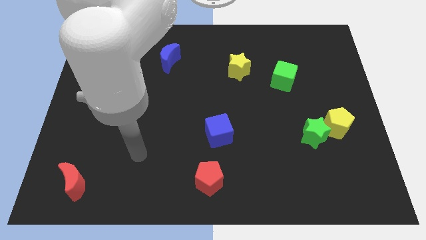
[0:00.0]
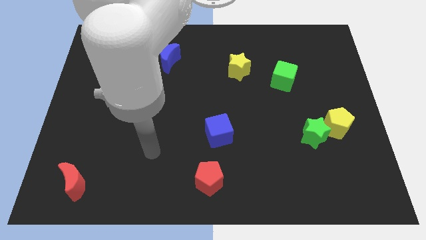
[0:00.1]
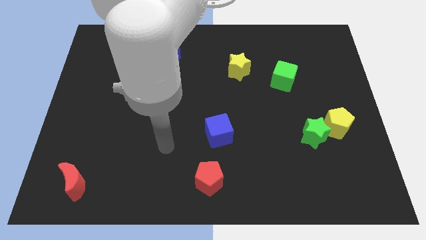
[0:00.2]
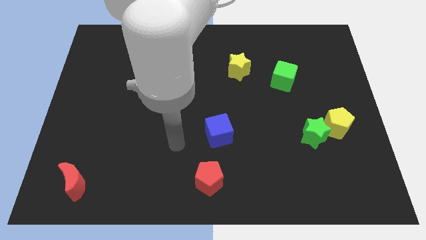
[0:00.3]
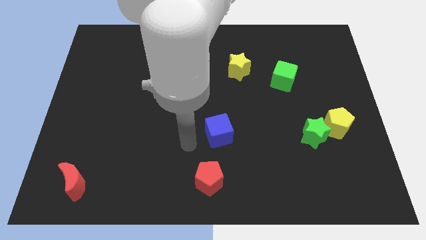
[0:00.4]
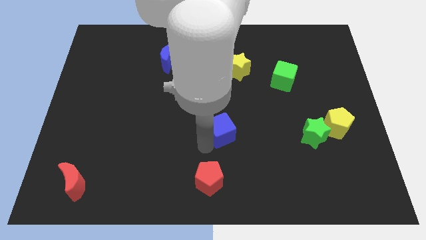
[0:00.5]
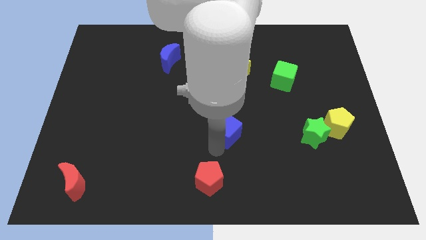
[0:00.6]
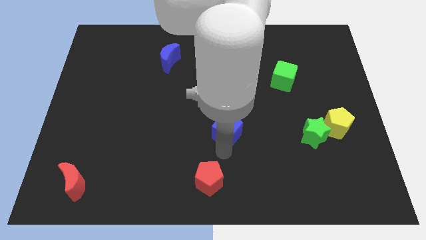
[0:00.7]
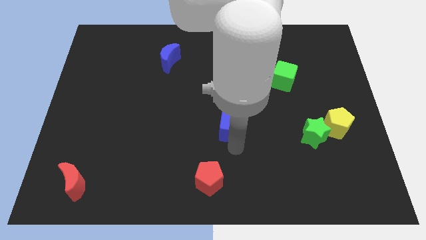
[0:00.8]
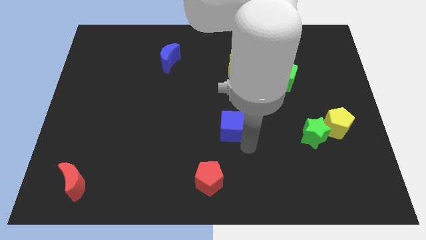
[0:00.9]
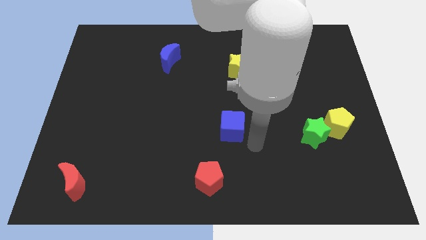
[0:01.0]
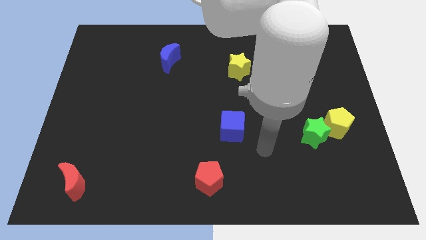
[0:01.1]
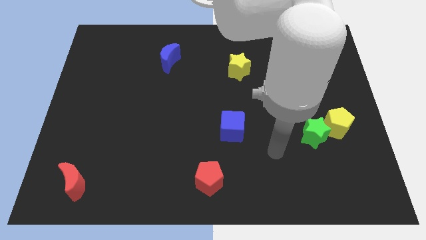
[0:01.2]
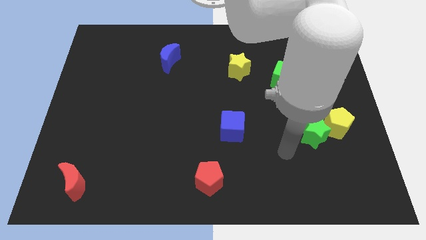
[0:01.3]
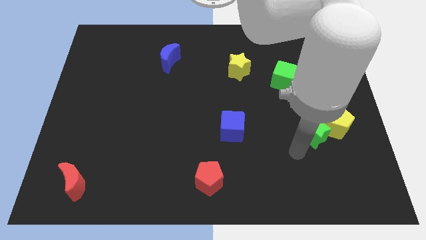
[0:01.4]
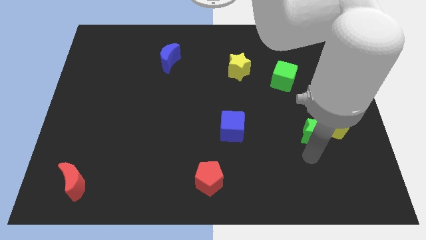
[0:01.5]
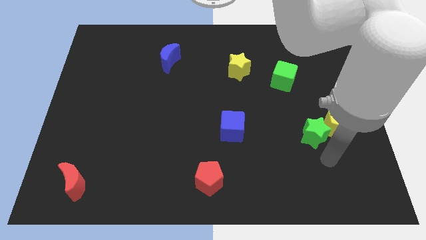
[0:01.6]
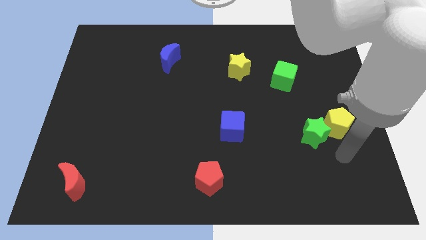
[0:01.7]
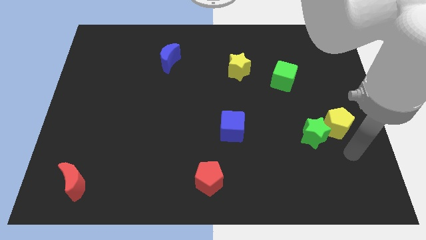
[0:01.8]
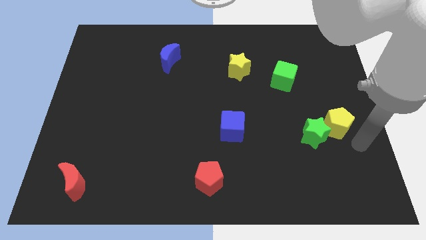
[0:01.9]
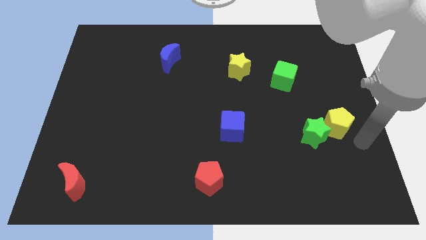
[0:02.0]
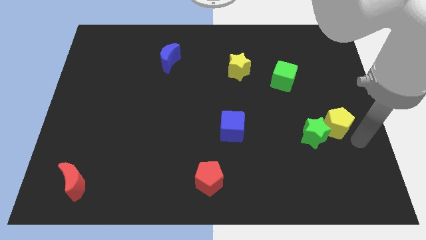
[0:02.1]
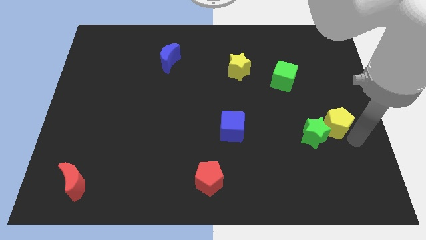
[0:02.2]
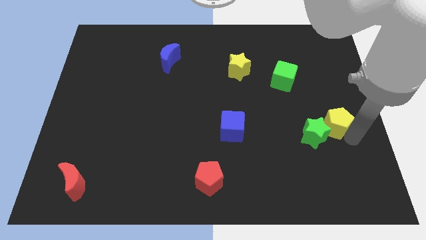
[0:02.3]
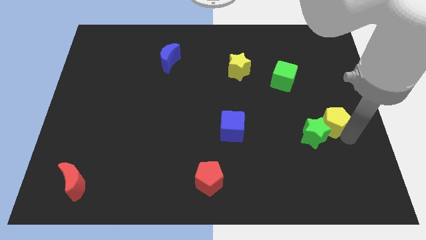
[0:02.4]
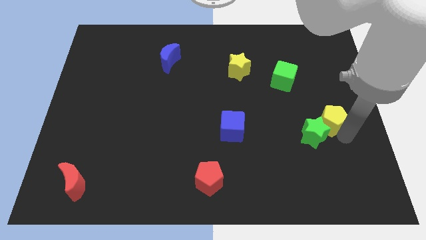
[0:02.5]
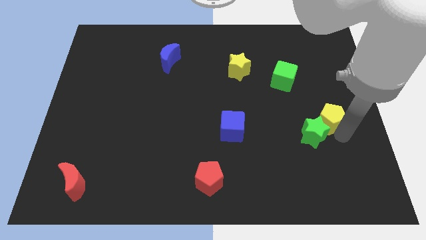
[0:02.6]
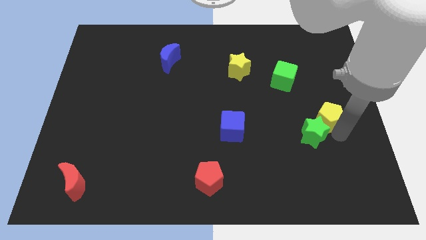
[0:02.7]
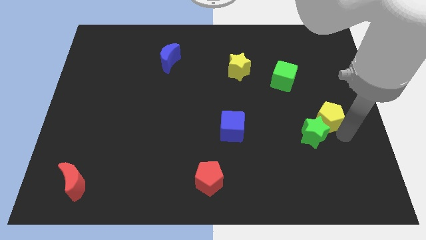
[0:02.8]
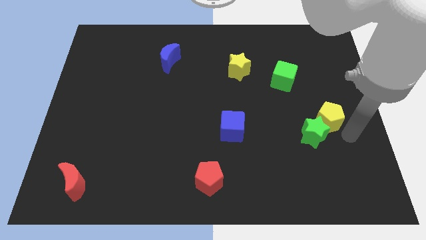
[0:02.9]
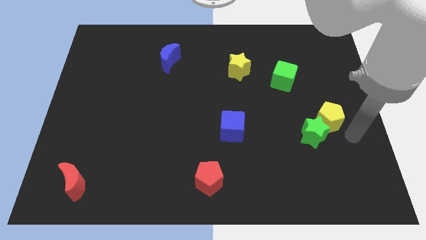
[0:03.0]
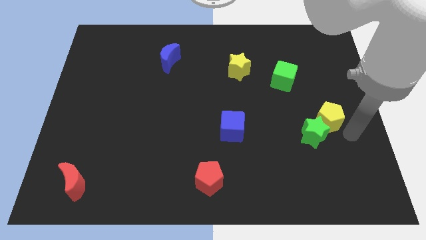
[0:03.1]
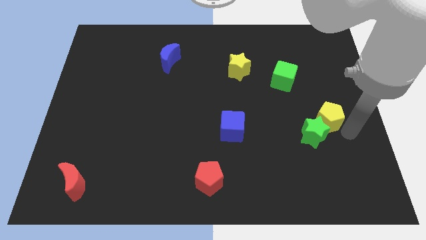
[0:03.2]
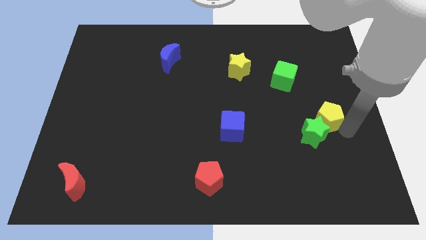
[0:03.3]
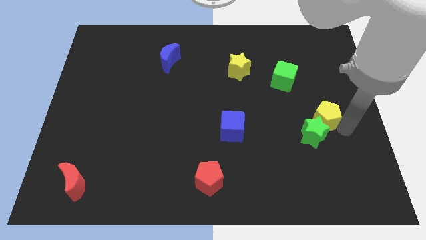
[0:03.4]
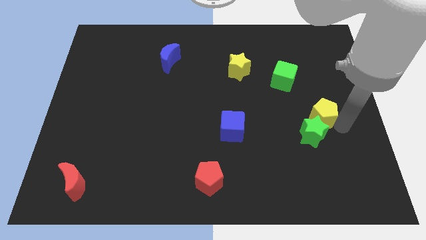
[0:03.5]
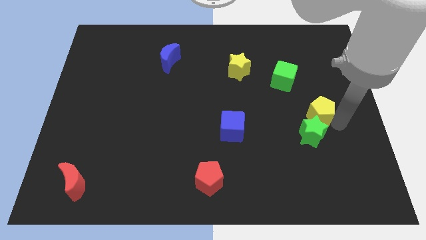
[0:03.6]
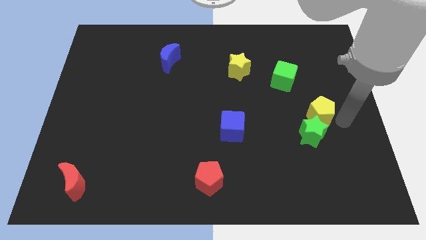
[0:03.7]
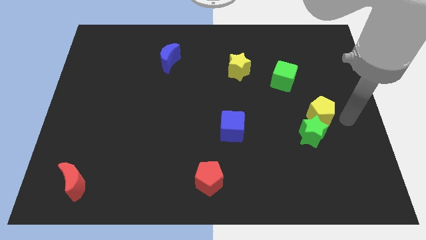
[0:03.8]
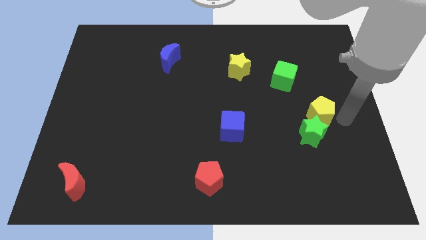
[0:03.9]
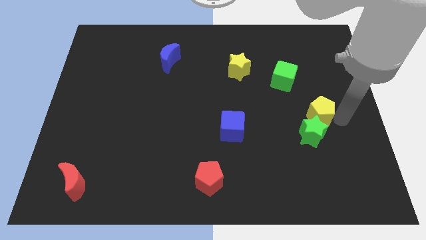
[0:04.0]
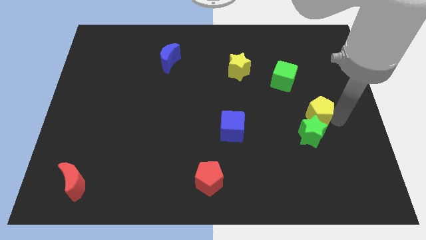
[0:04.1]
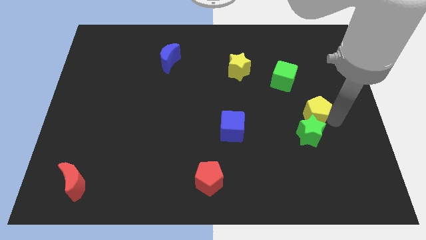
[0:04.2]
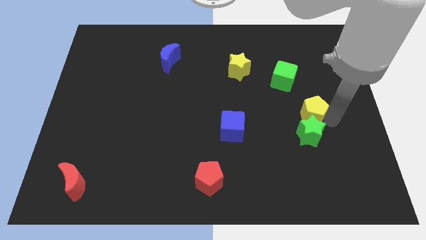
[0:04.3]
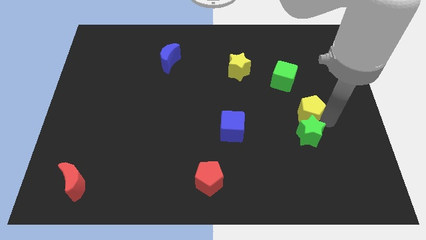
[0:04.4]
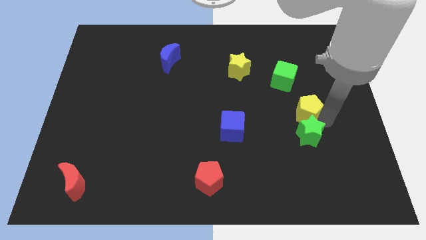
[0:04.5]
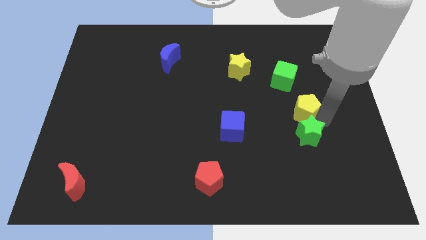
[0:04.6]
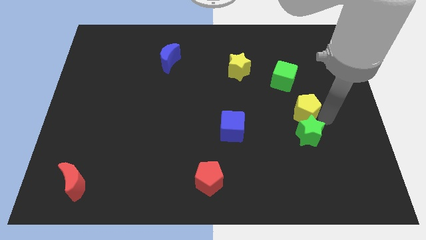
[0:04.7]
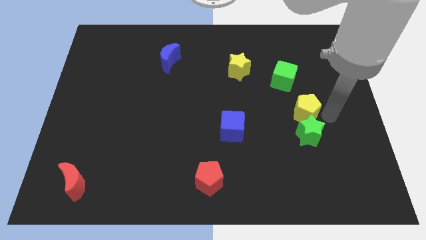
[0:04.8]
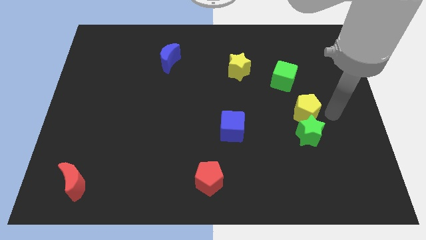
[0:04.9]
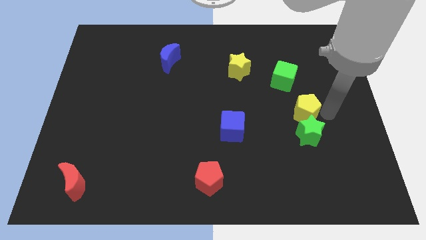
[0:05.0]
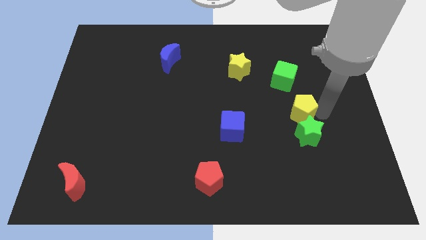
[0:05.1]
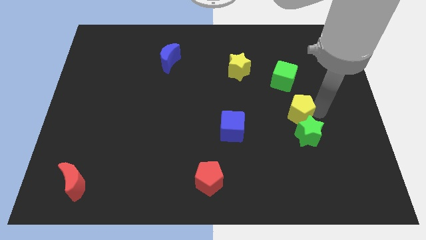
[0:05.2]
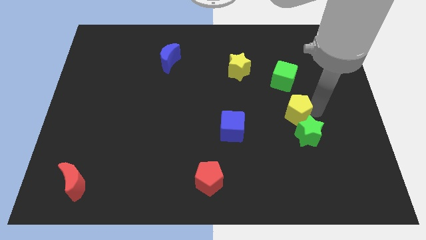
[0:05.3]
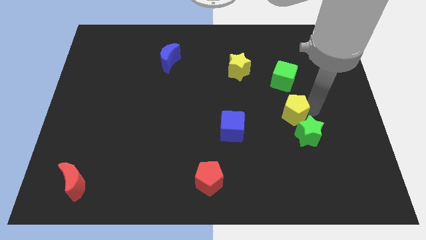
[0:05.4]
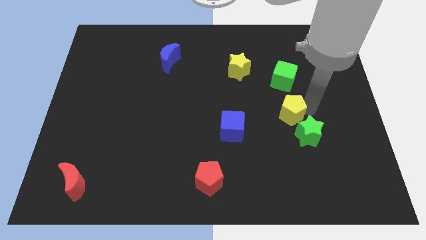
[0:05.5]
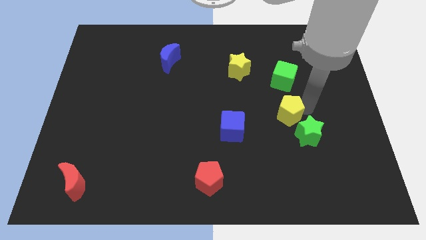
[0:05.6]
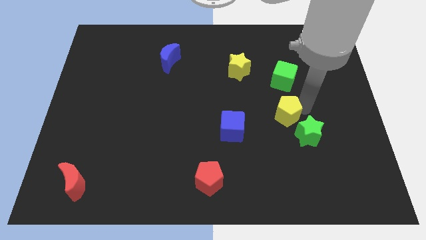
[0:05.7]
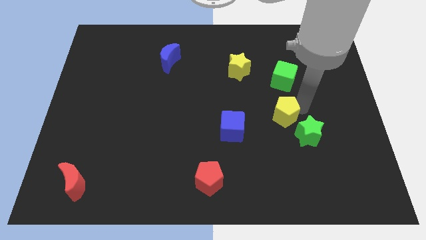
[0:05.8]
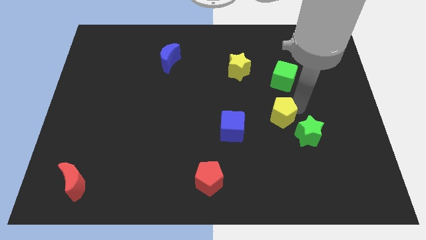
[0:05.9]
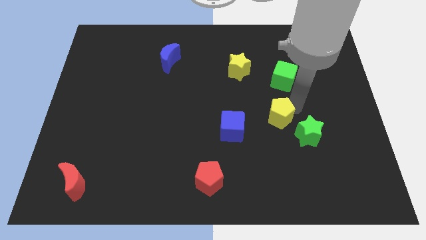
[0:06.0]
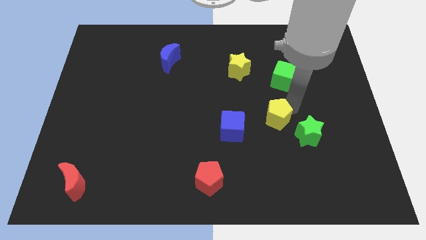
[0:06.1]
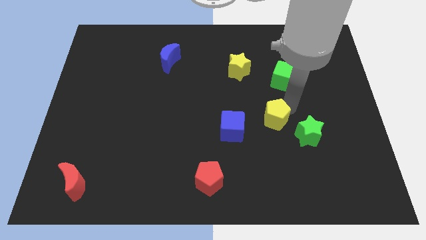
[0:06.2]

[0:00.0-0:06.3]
put the yellow pentagon to the top right of the blue cube
